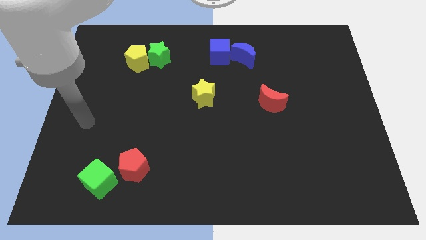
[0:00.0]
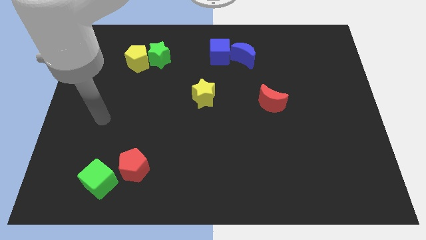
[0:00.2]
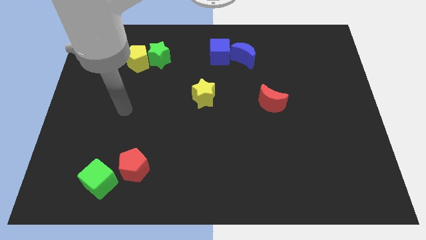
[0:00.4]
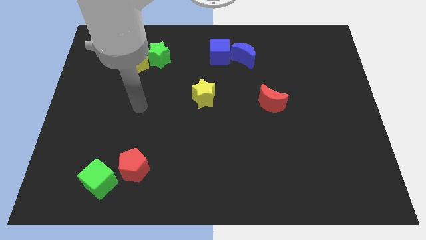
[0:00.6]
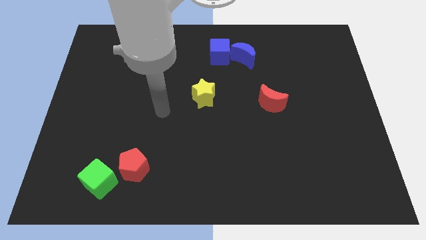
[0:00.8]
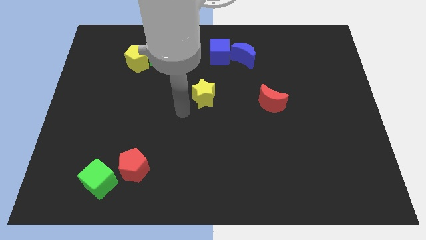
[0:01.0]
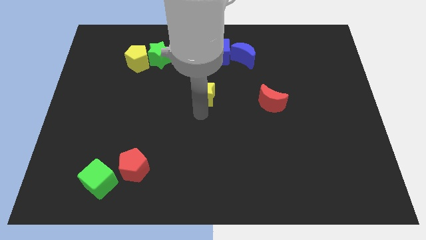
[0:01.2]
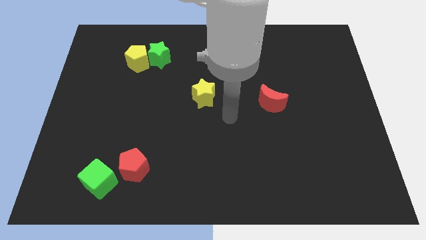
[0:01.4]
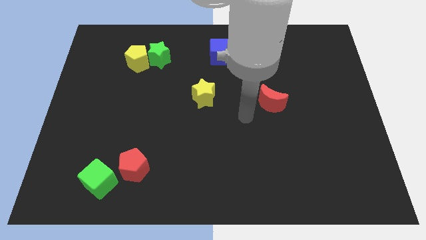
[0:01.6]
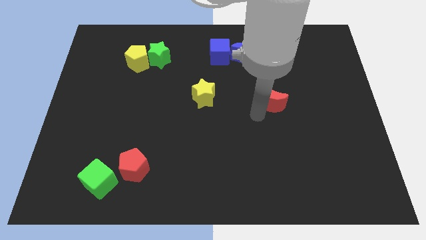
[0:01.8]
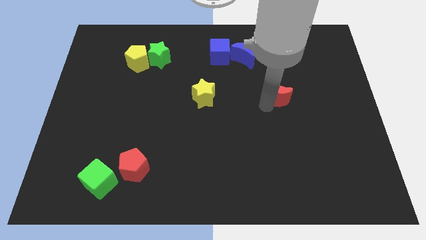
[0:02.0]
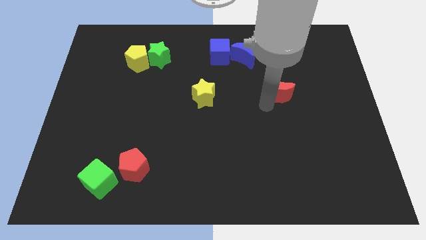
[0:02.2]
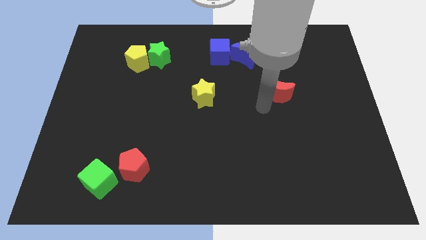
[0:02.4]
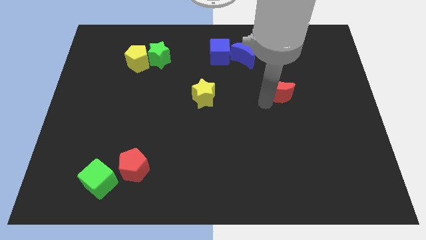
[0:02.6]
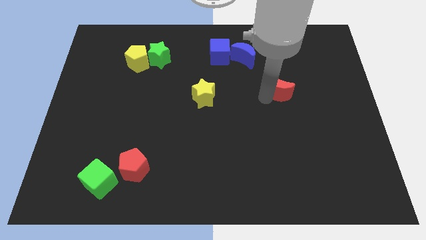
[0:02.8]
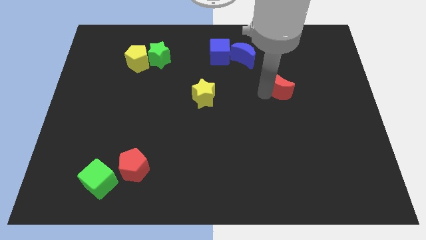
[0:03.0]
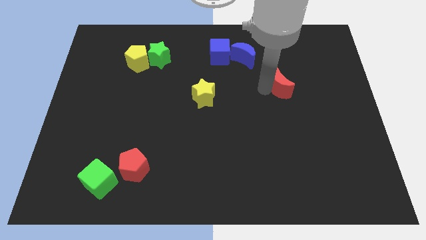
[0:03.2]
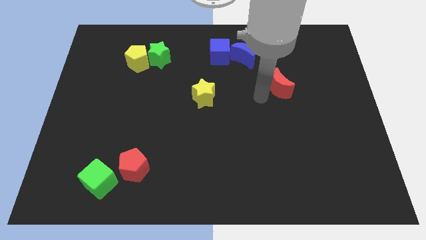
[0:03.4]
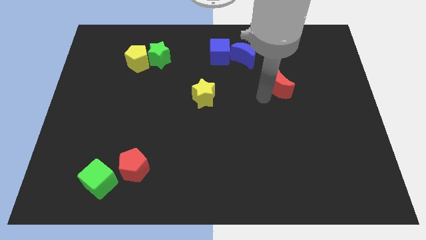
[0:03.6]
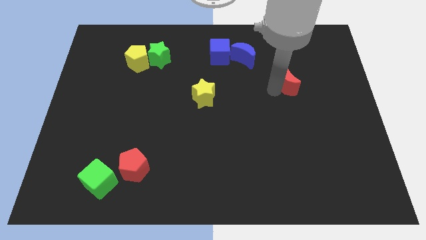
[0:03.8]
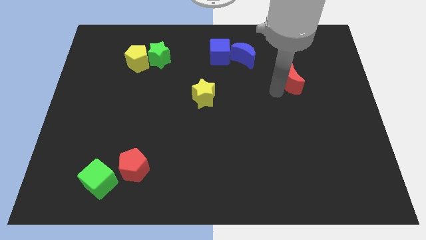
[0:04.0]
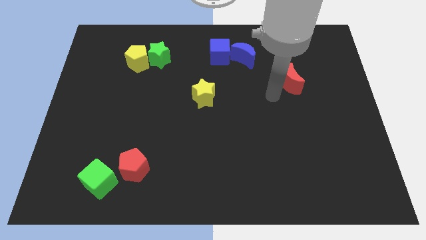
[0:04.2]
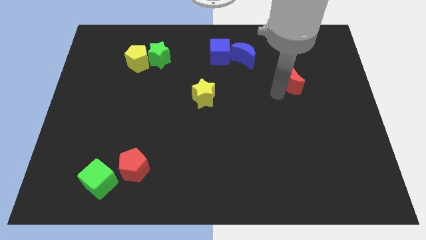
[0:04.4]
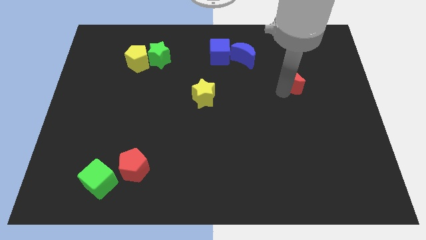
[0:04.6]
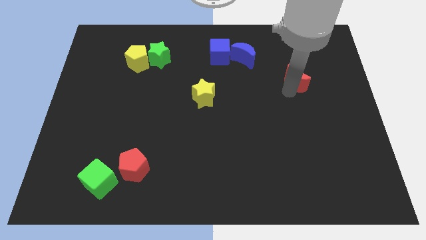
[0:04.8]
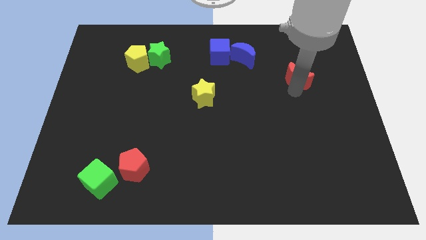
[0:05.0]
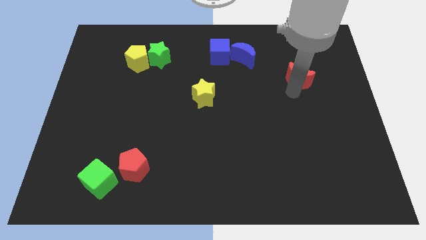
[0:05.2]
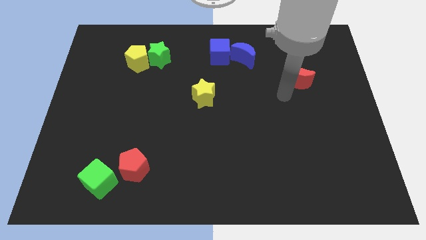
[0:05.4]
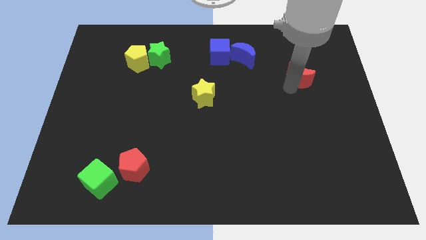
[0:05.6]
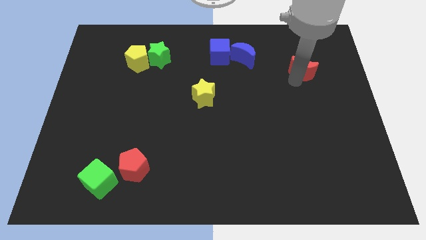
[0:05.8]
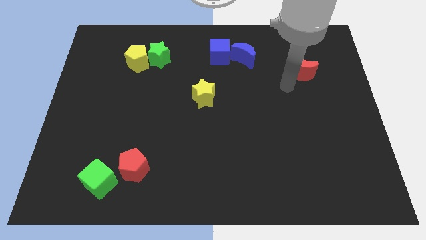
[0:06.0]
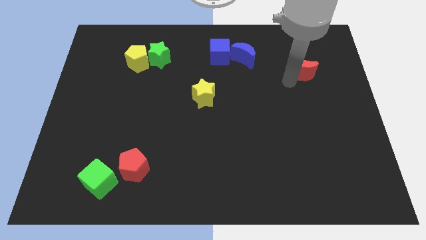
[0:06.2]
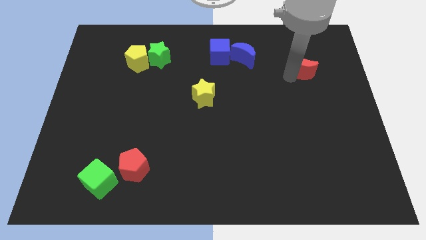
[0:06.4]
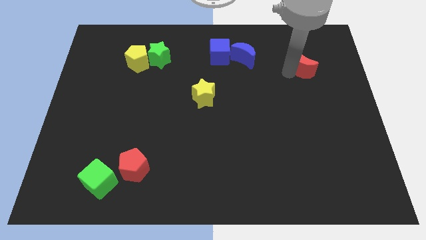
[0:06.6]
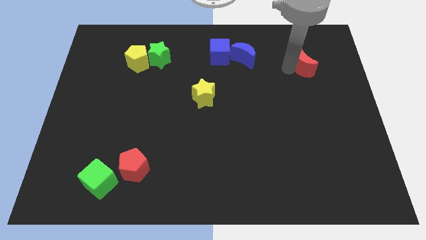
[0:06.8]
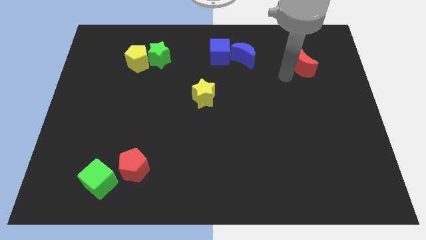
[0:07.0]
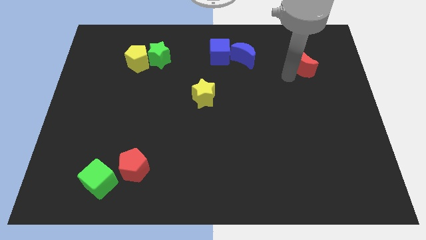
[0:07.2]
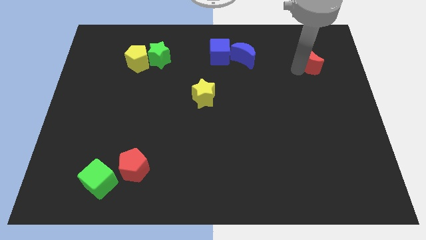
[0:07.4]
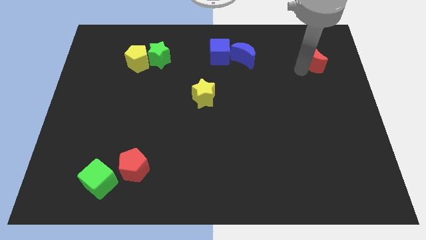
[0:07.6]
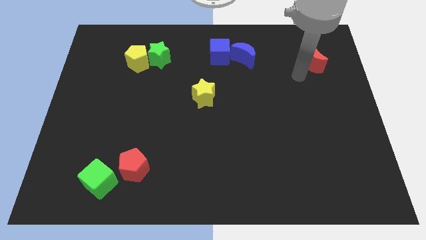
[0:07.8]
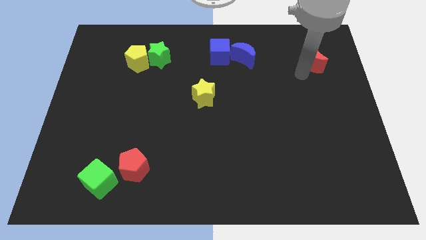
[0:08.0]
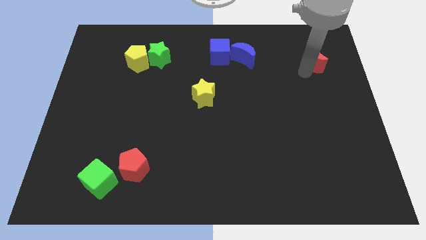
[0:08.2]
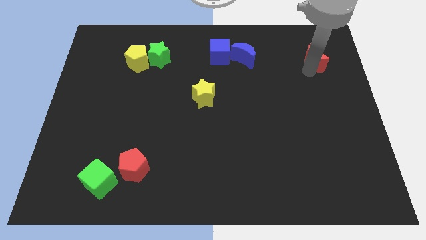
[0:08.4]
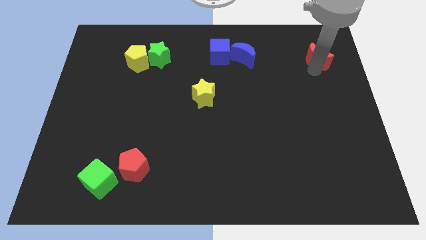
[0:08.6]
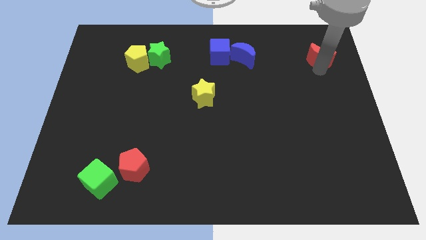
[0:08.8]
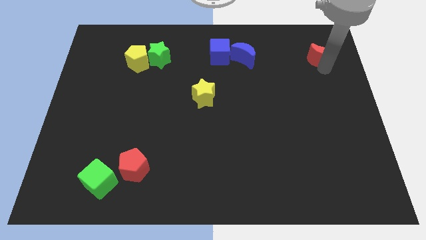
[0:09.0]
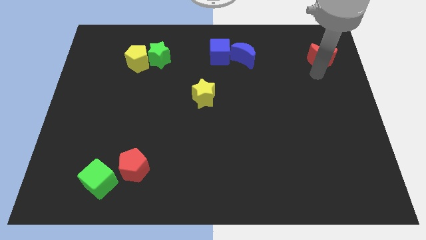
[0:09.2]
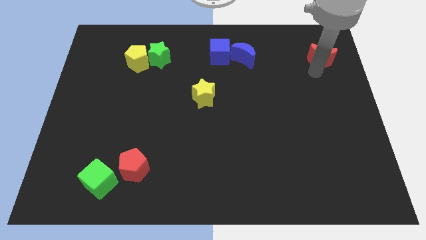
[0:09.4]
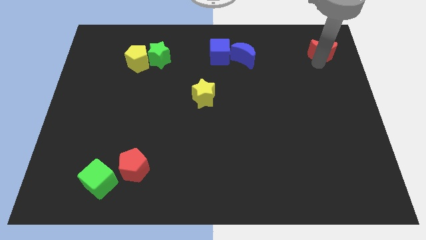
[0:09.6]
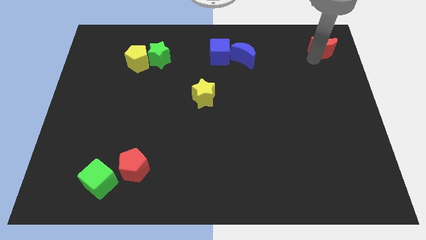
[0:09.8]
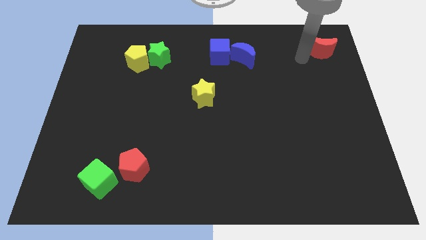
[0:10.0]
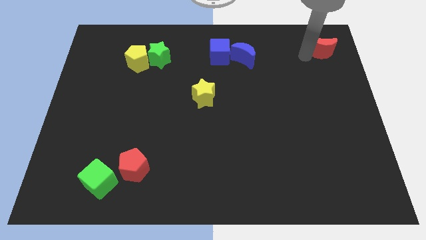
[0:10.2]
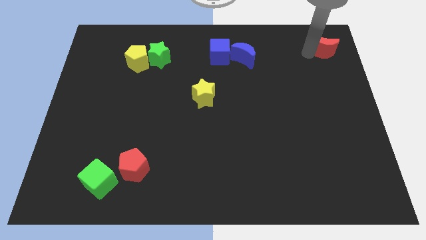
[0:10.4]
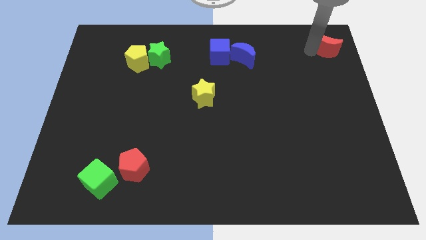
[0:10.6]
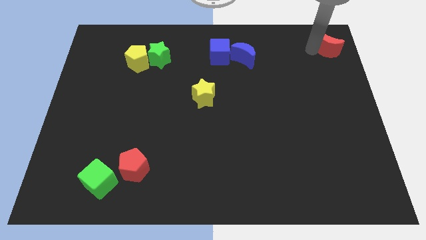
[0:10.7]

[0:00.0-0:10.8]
put the red moon to the top right

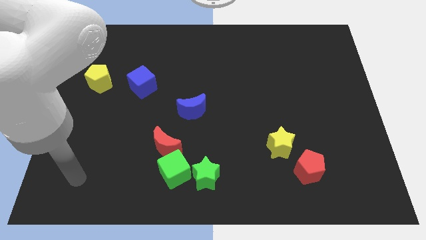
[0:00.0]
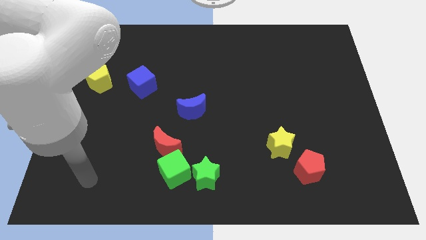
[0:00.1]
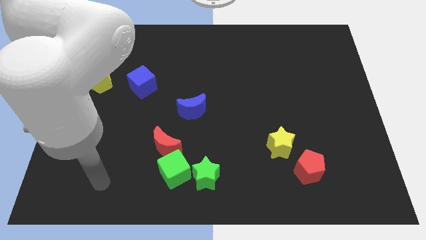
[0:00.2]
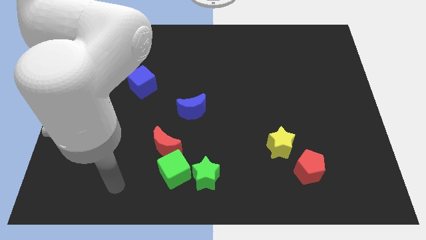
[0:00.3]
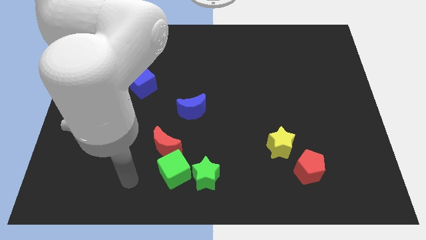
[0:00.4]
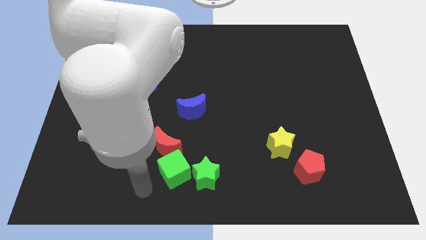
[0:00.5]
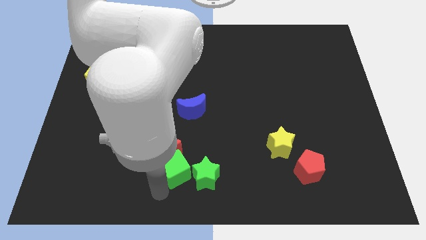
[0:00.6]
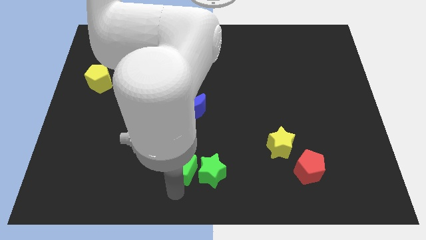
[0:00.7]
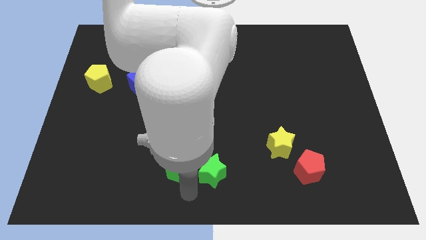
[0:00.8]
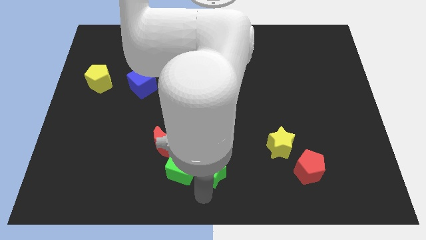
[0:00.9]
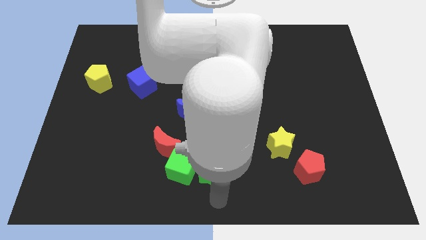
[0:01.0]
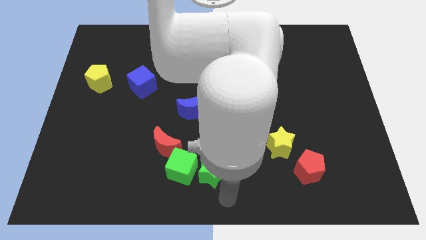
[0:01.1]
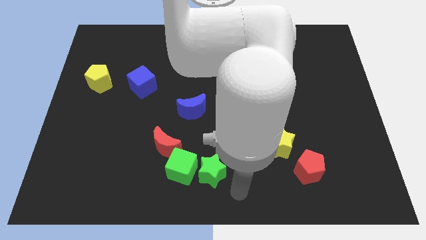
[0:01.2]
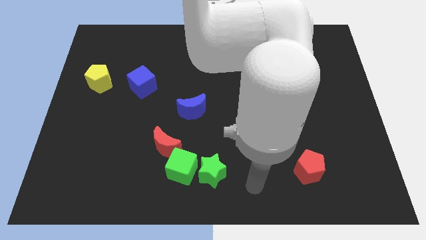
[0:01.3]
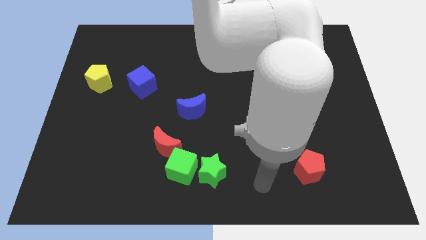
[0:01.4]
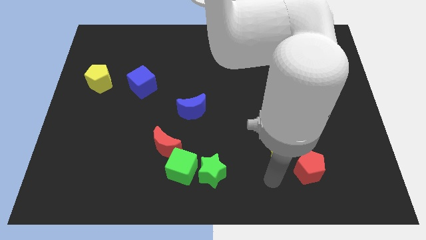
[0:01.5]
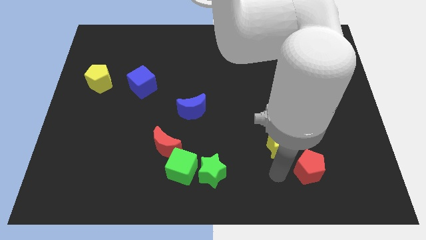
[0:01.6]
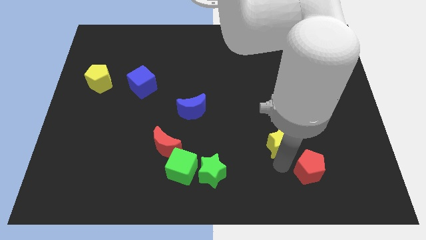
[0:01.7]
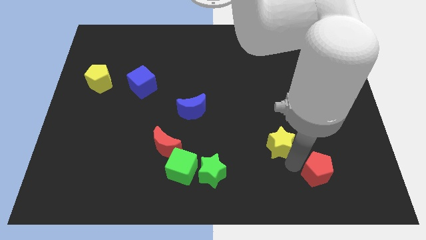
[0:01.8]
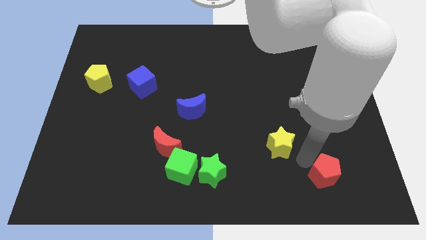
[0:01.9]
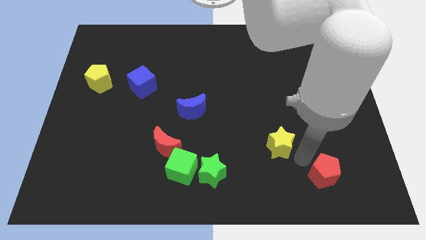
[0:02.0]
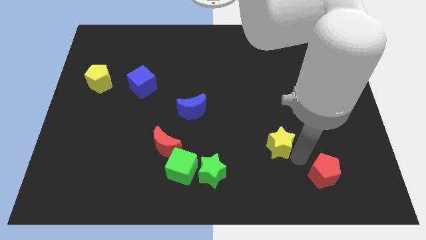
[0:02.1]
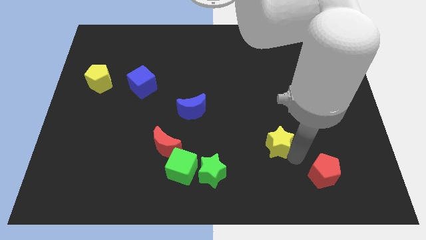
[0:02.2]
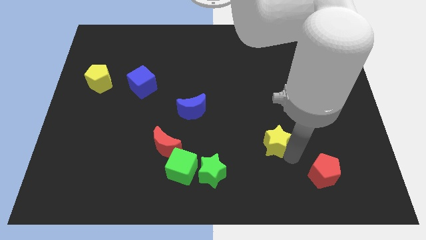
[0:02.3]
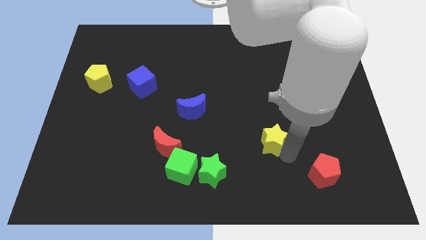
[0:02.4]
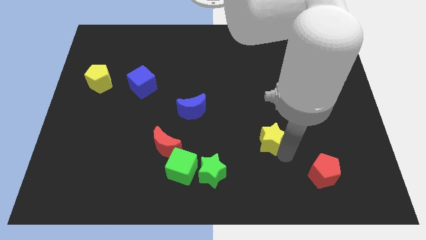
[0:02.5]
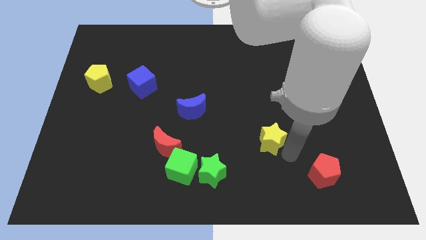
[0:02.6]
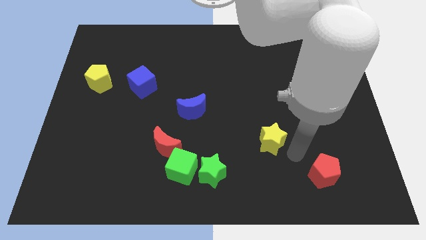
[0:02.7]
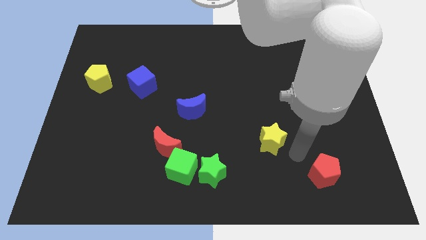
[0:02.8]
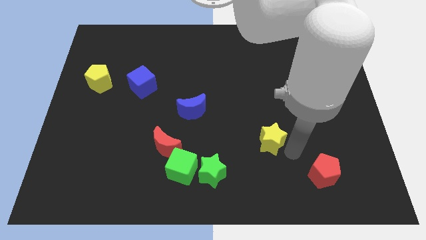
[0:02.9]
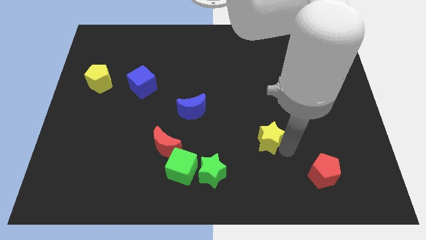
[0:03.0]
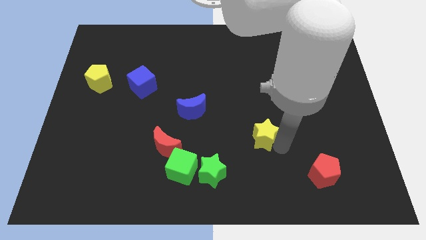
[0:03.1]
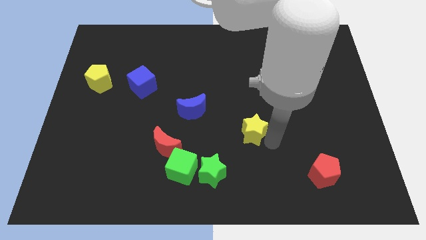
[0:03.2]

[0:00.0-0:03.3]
slide the yellow star to the middle of the board
